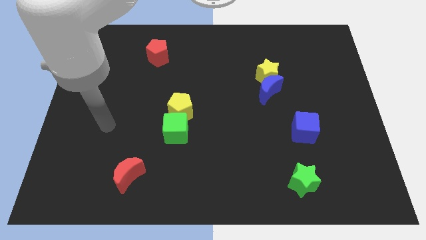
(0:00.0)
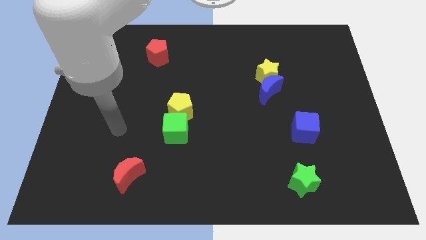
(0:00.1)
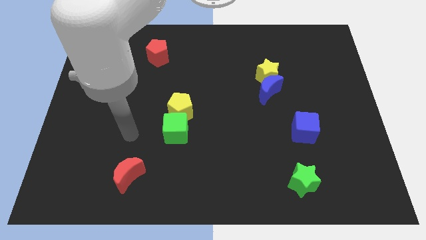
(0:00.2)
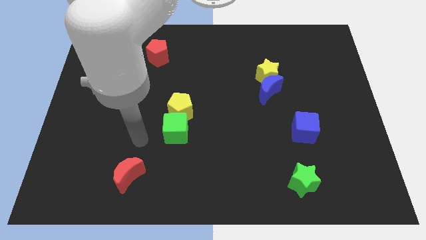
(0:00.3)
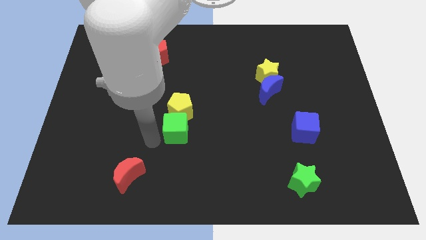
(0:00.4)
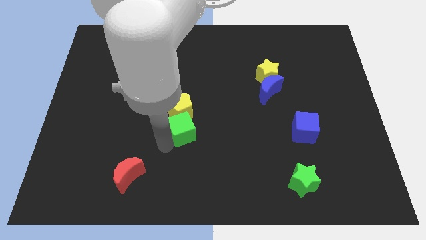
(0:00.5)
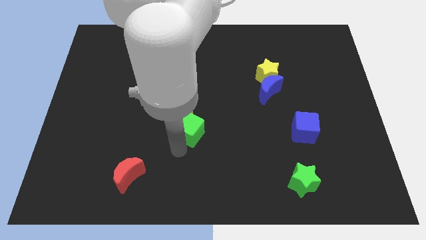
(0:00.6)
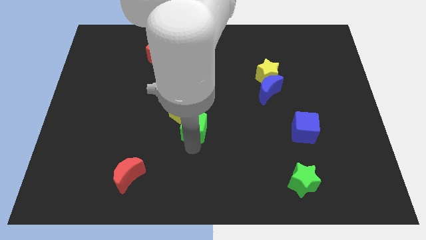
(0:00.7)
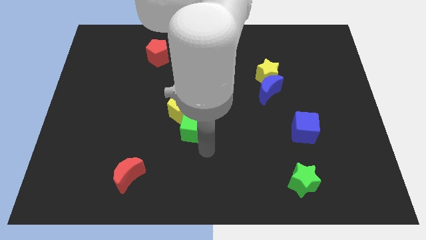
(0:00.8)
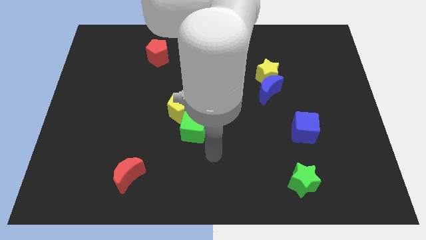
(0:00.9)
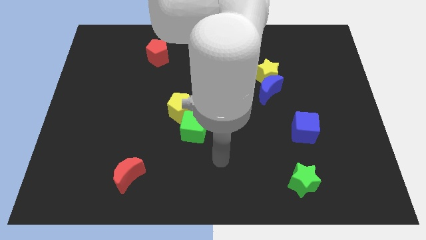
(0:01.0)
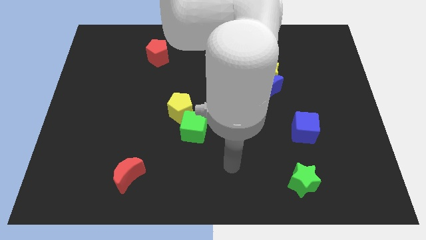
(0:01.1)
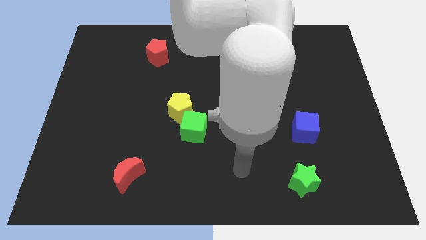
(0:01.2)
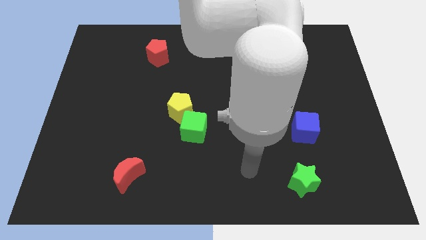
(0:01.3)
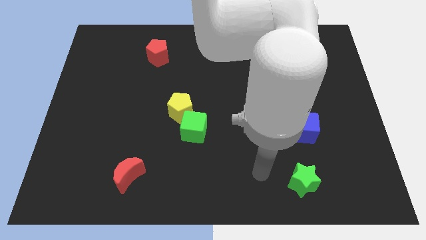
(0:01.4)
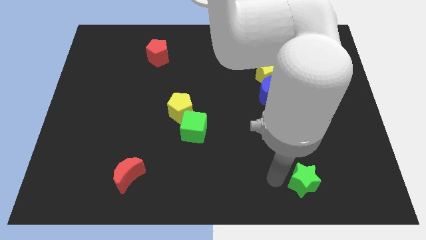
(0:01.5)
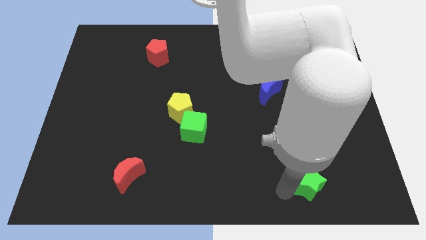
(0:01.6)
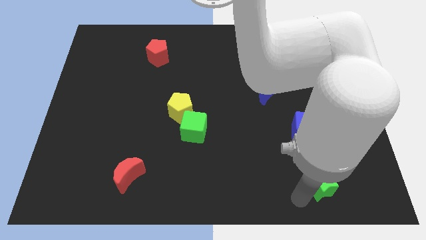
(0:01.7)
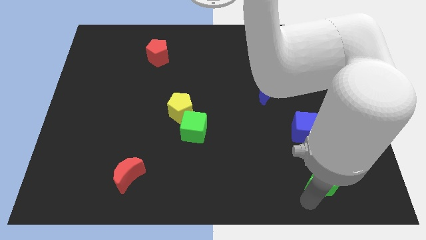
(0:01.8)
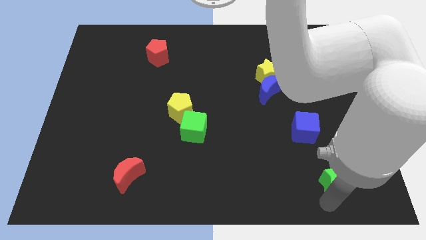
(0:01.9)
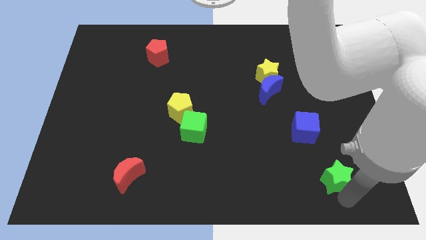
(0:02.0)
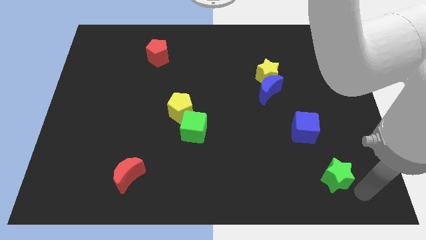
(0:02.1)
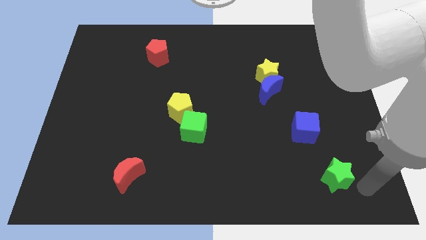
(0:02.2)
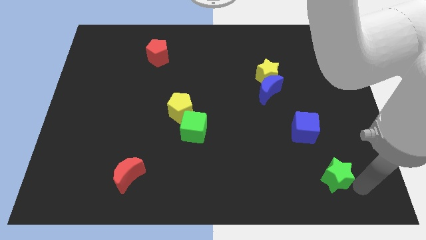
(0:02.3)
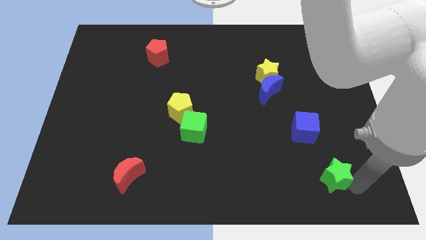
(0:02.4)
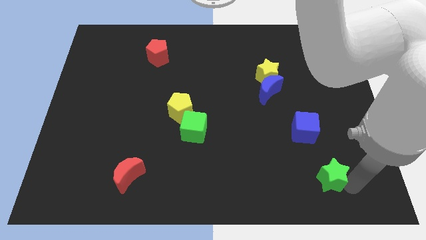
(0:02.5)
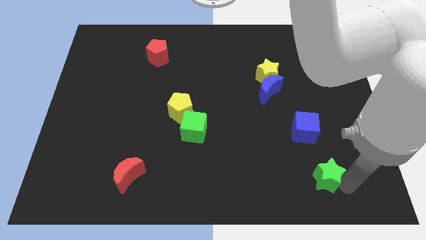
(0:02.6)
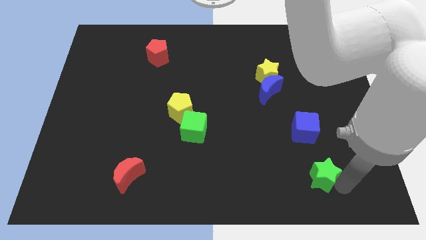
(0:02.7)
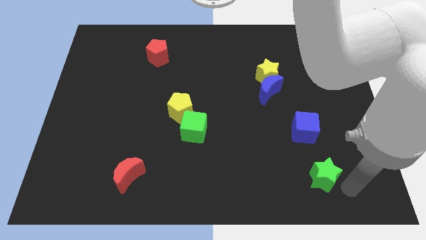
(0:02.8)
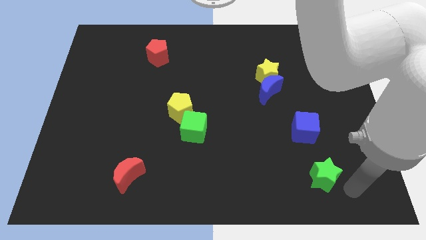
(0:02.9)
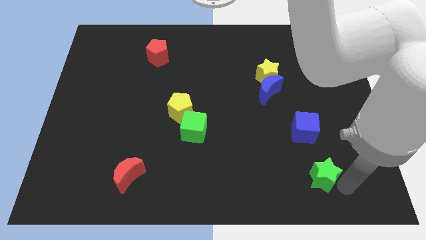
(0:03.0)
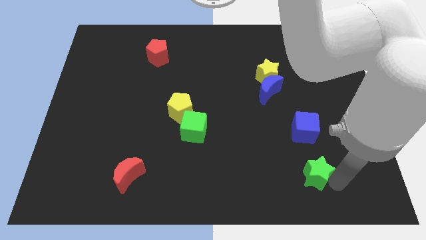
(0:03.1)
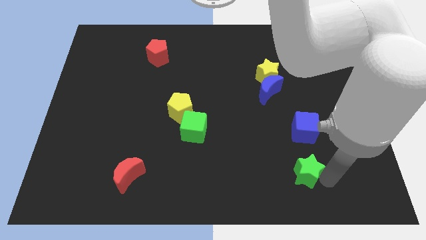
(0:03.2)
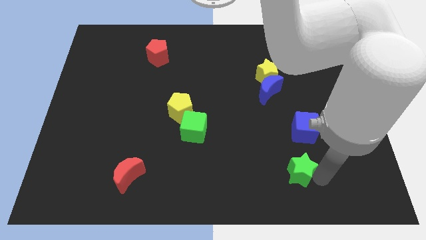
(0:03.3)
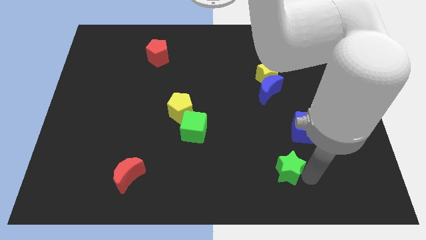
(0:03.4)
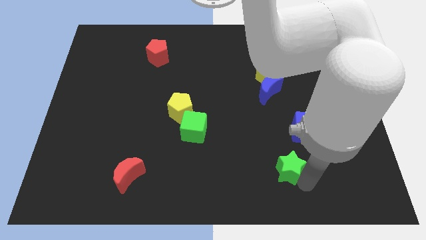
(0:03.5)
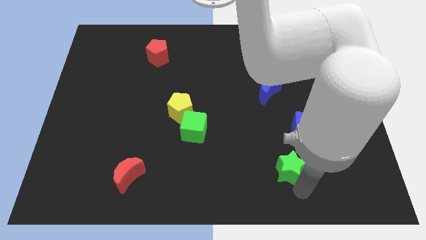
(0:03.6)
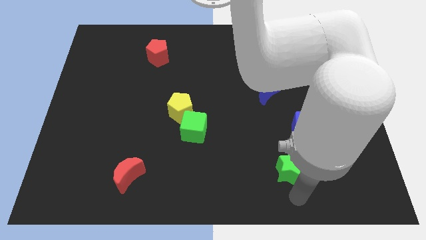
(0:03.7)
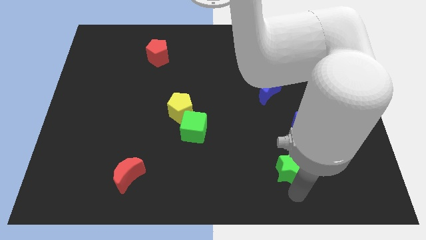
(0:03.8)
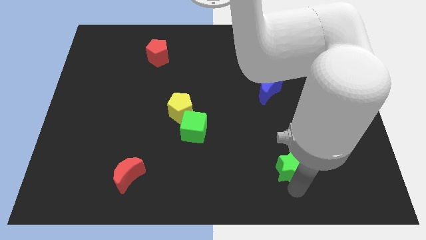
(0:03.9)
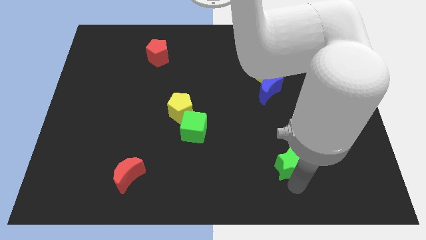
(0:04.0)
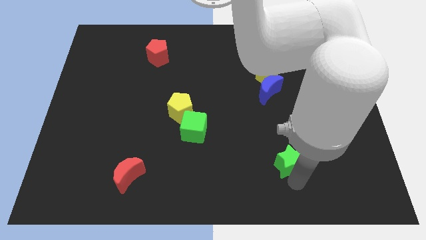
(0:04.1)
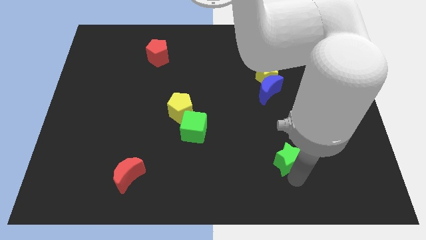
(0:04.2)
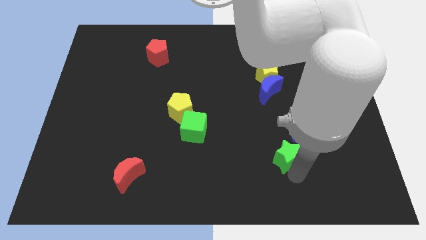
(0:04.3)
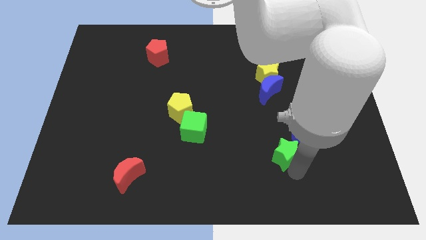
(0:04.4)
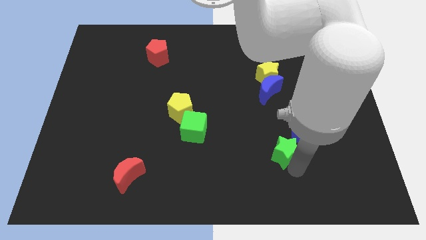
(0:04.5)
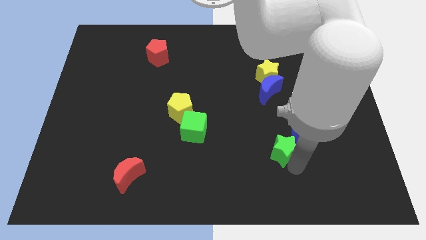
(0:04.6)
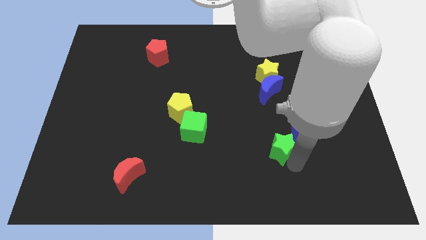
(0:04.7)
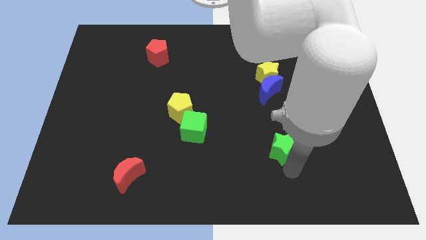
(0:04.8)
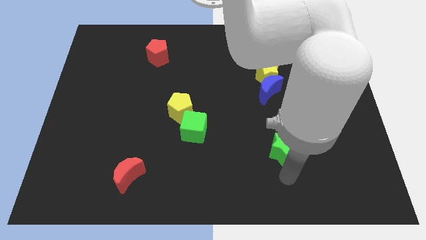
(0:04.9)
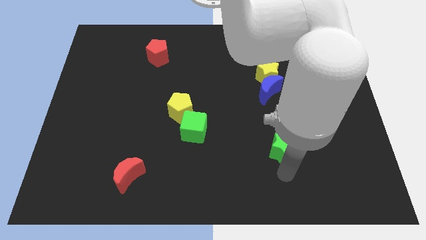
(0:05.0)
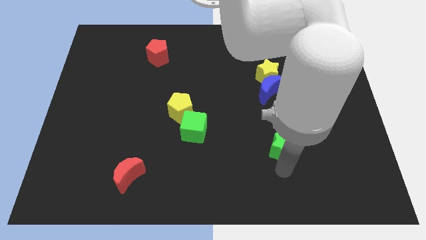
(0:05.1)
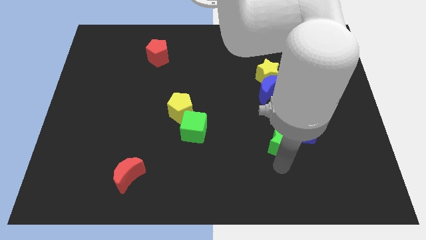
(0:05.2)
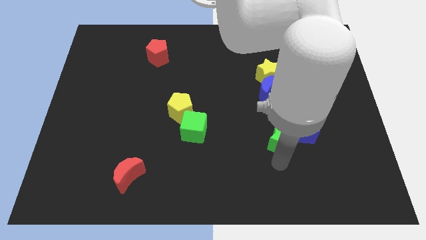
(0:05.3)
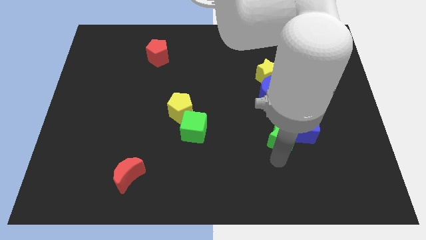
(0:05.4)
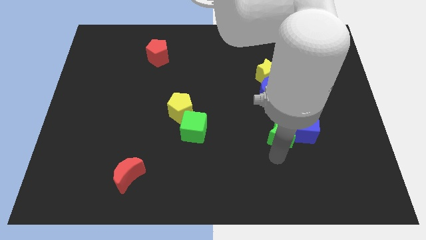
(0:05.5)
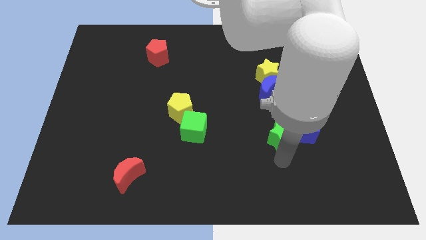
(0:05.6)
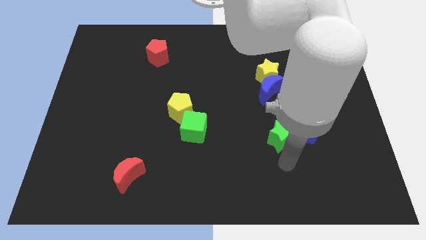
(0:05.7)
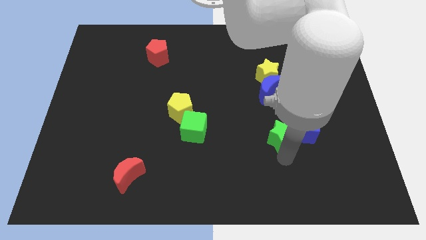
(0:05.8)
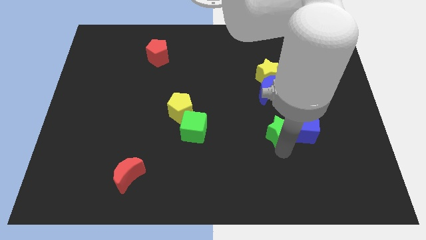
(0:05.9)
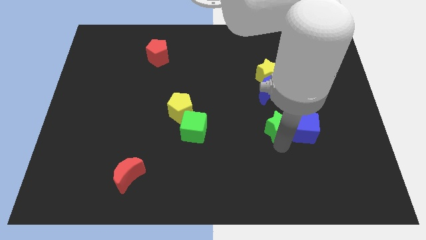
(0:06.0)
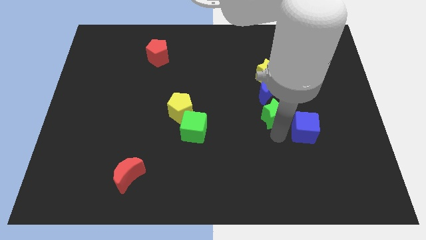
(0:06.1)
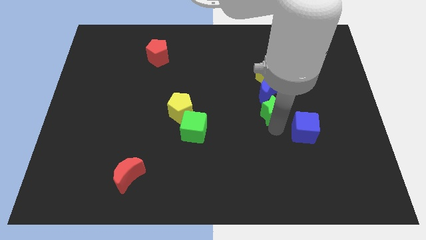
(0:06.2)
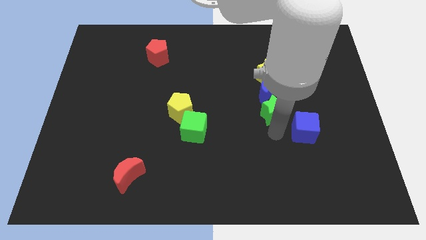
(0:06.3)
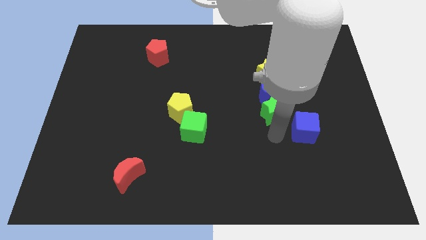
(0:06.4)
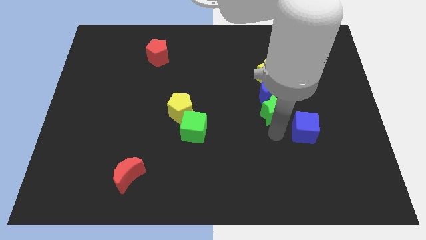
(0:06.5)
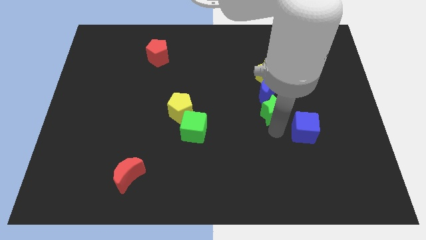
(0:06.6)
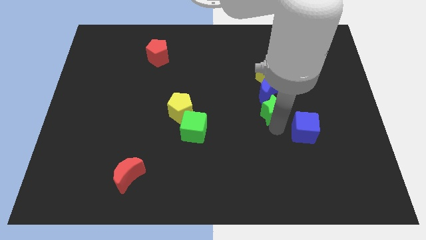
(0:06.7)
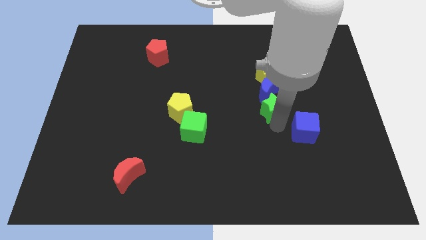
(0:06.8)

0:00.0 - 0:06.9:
move the green star close to the blue moon

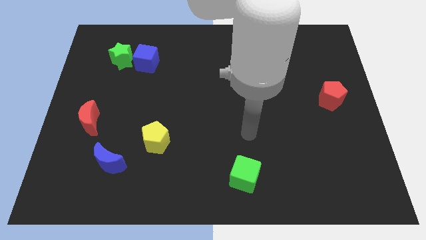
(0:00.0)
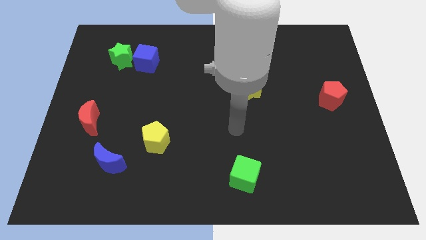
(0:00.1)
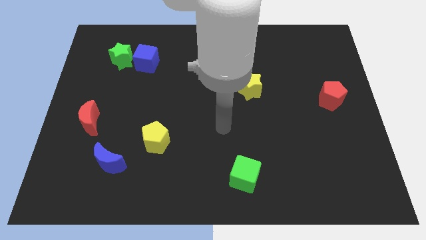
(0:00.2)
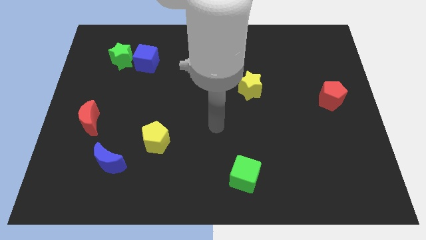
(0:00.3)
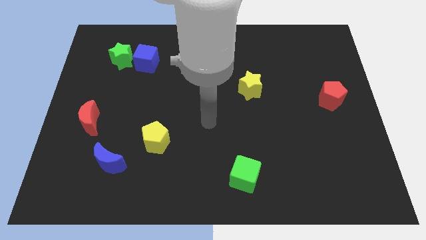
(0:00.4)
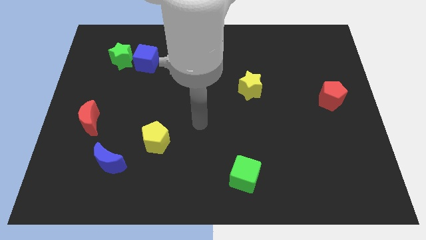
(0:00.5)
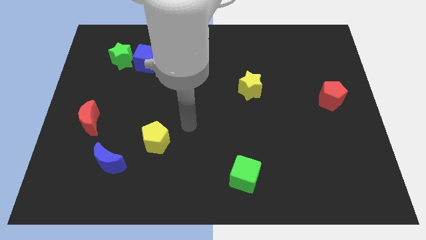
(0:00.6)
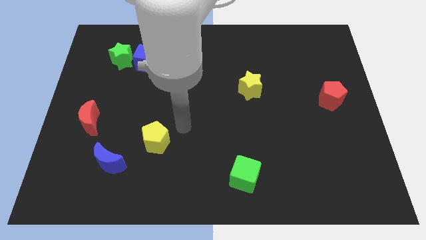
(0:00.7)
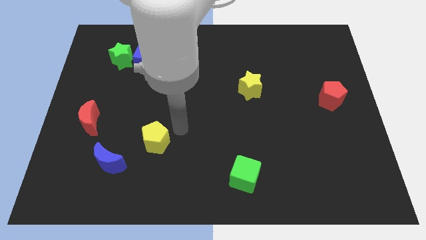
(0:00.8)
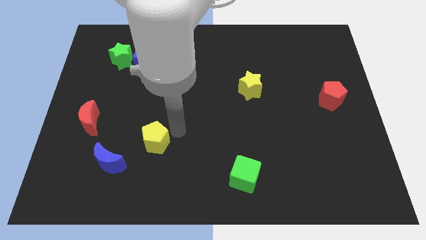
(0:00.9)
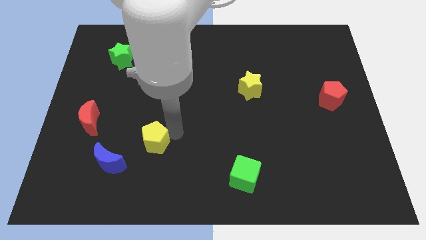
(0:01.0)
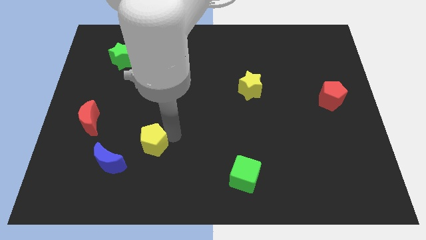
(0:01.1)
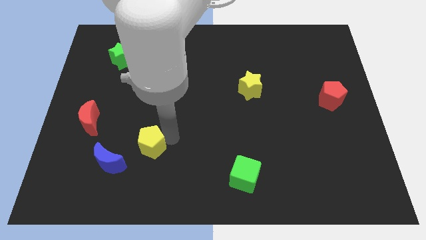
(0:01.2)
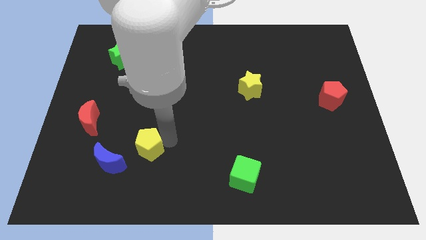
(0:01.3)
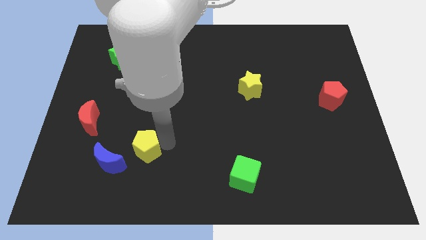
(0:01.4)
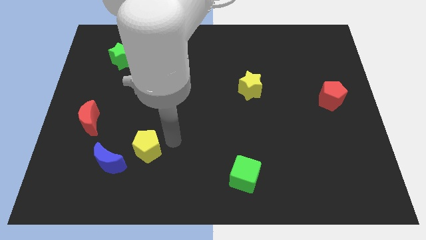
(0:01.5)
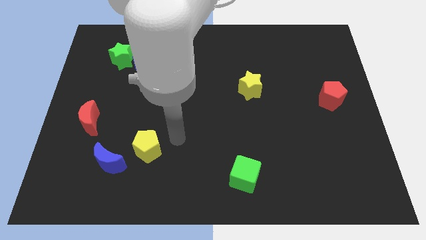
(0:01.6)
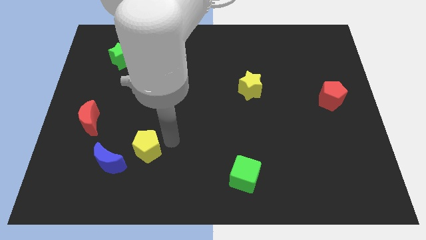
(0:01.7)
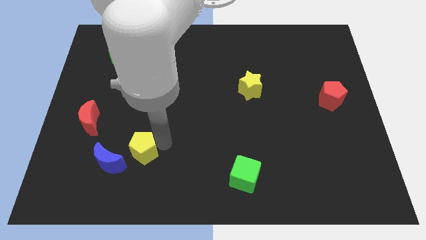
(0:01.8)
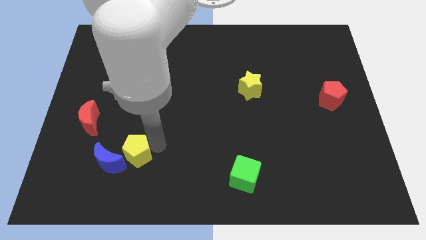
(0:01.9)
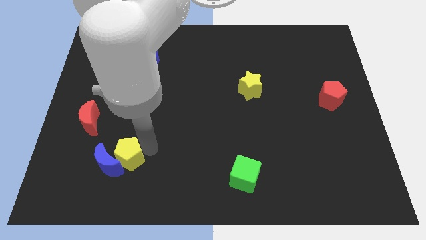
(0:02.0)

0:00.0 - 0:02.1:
move the yellow pentagon to the blue moon
